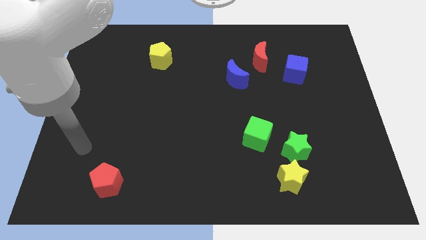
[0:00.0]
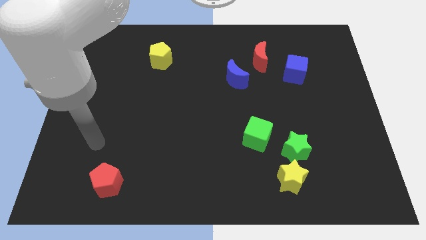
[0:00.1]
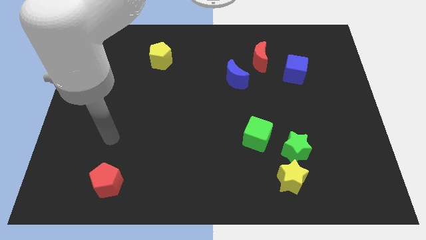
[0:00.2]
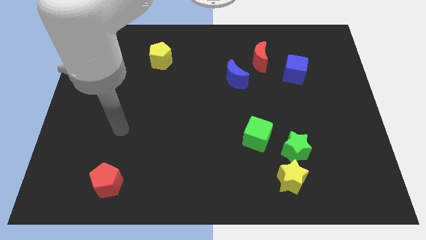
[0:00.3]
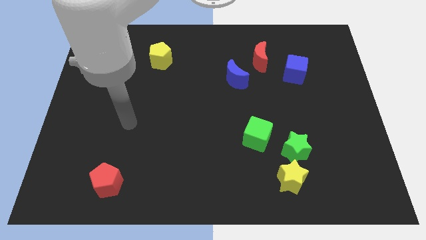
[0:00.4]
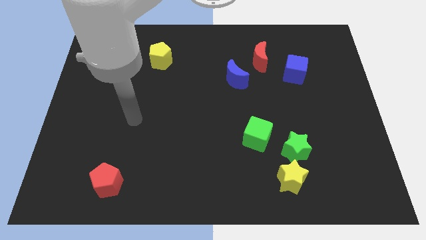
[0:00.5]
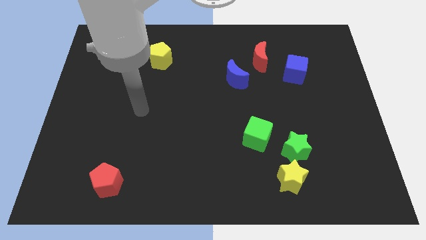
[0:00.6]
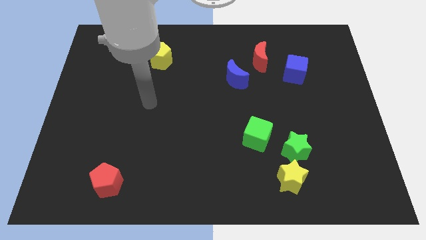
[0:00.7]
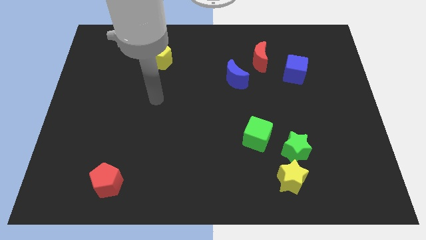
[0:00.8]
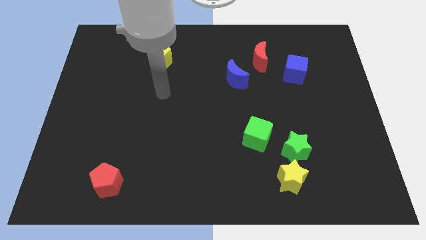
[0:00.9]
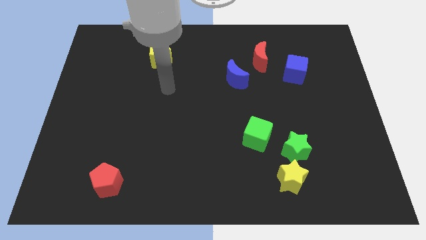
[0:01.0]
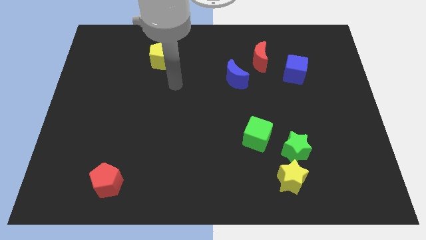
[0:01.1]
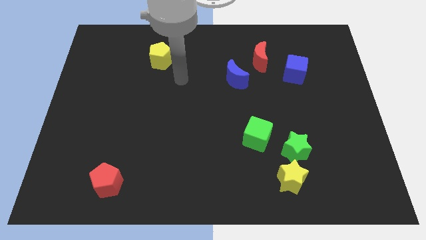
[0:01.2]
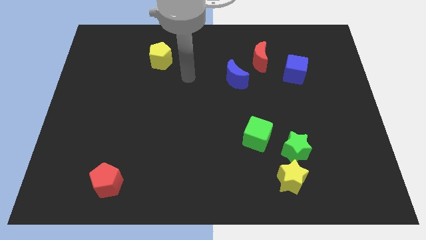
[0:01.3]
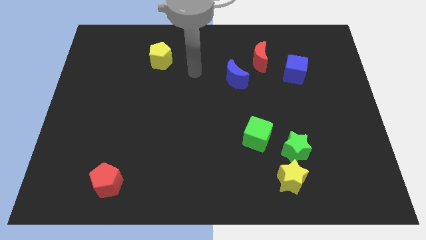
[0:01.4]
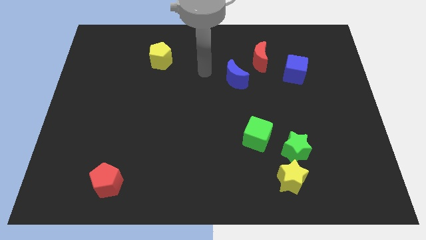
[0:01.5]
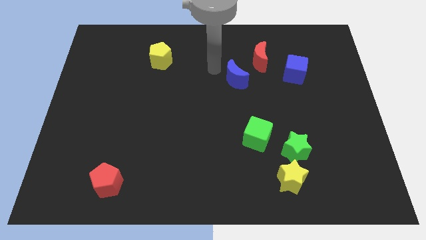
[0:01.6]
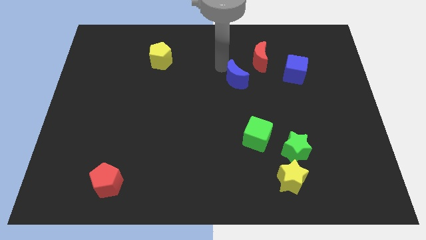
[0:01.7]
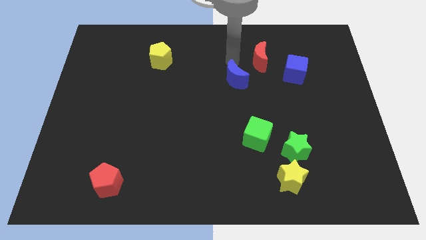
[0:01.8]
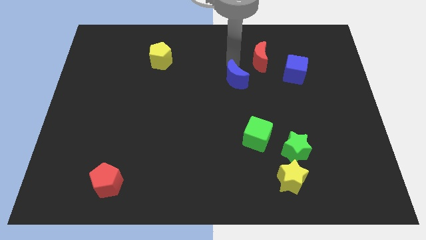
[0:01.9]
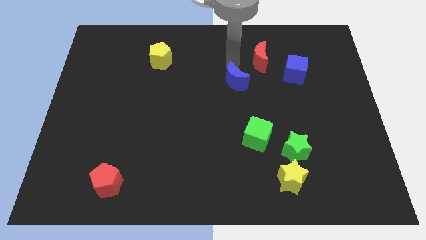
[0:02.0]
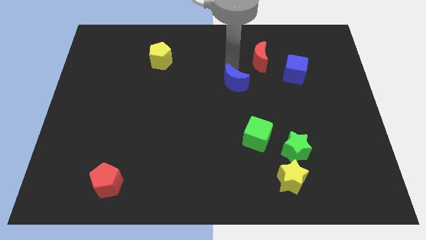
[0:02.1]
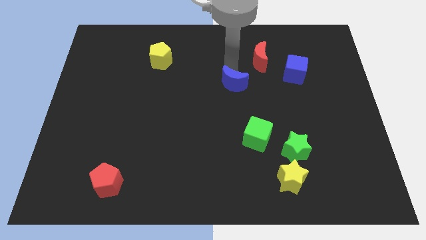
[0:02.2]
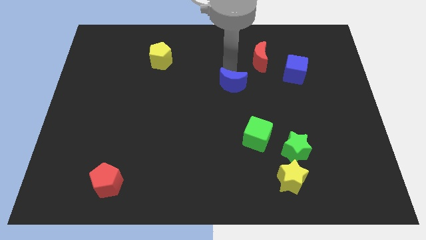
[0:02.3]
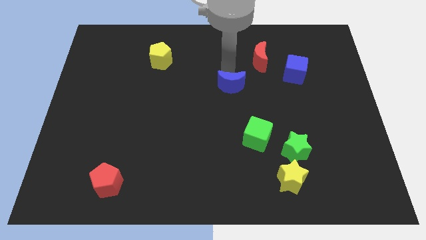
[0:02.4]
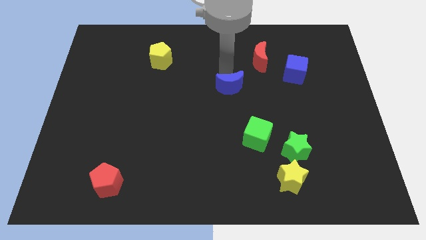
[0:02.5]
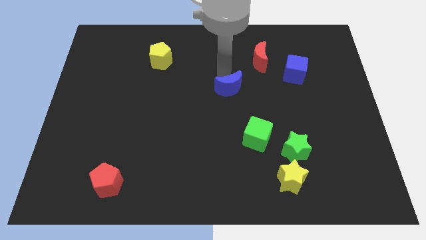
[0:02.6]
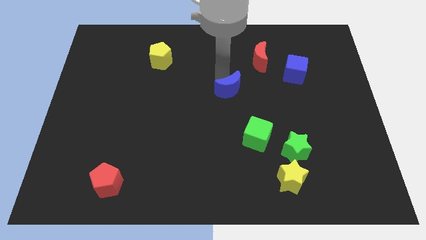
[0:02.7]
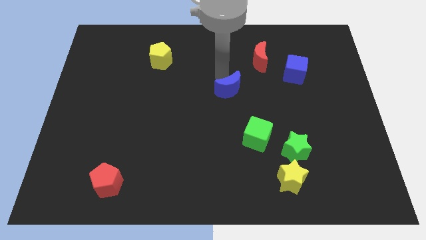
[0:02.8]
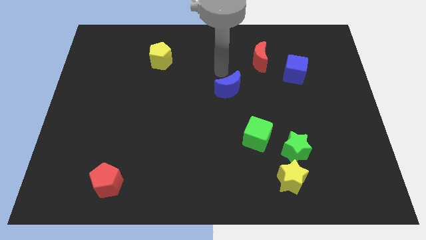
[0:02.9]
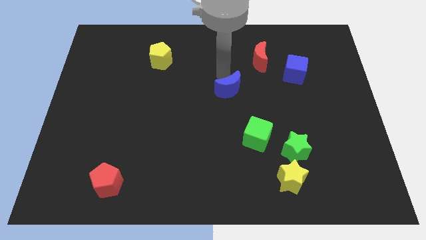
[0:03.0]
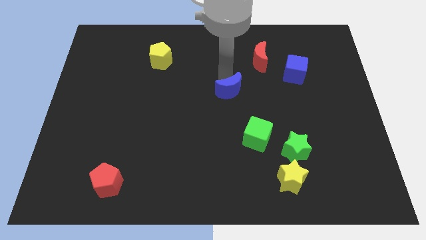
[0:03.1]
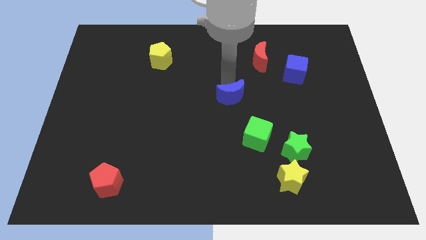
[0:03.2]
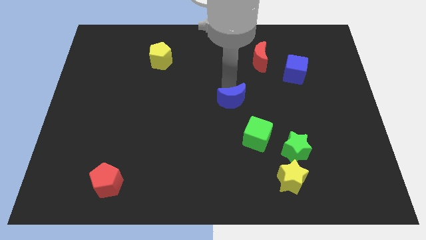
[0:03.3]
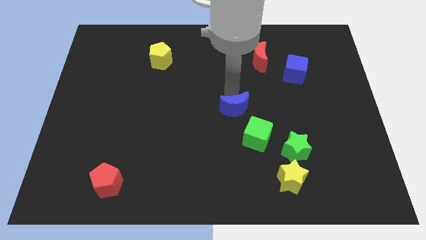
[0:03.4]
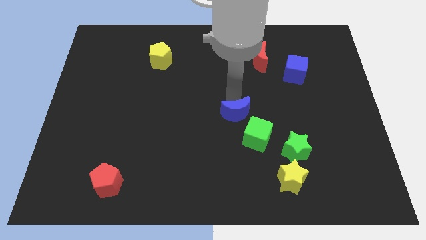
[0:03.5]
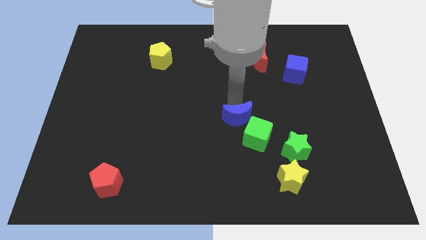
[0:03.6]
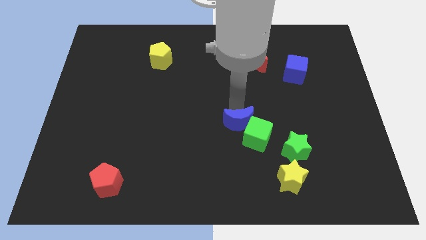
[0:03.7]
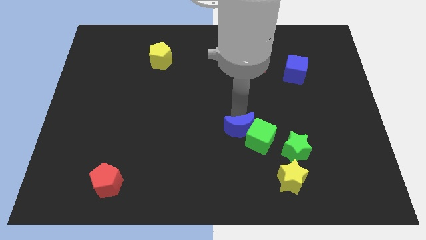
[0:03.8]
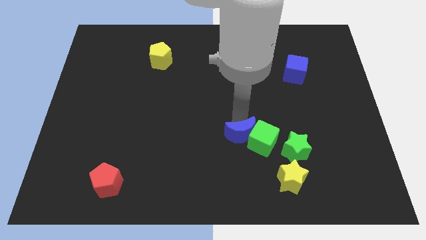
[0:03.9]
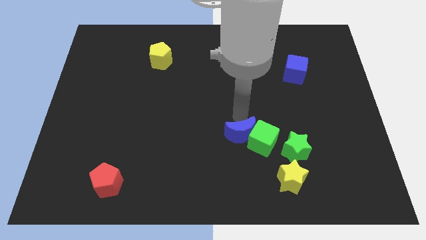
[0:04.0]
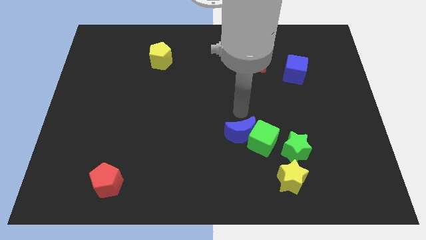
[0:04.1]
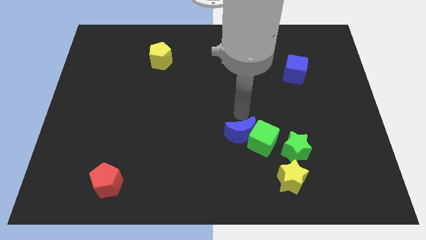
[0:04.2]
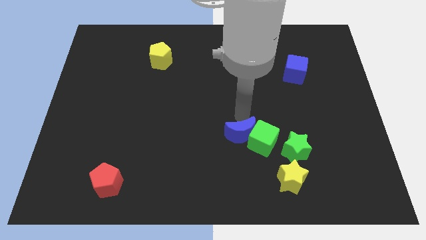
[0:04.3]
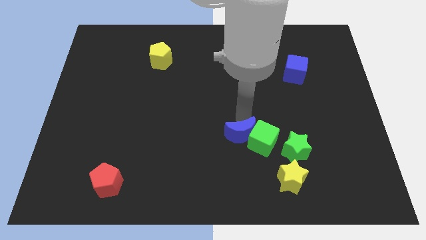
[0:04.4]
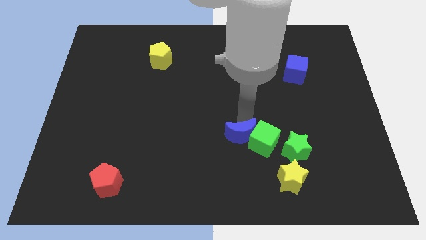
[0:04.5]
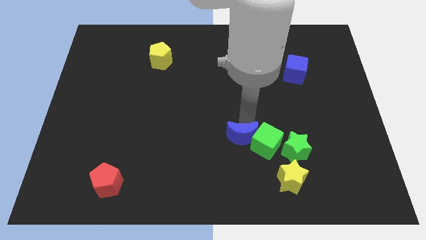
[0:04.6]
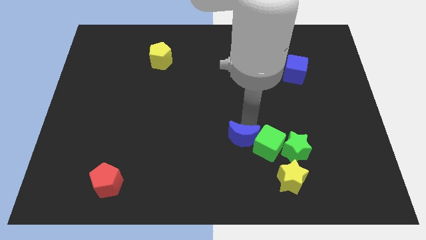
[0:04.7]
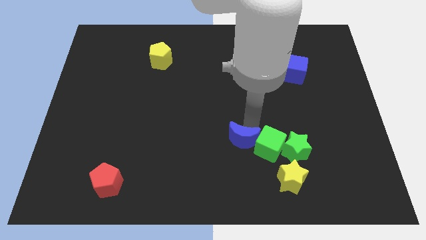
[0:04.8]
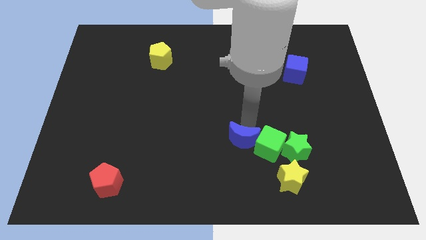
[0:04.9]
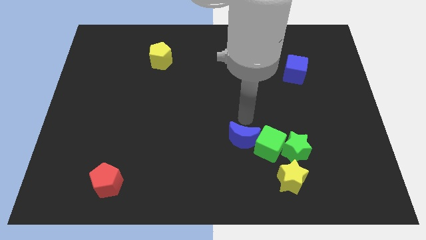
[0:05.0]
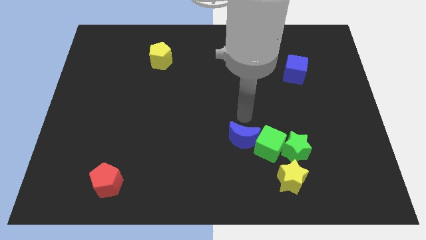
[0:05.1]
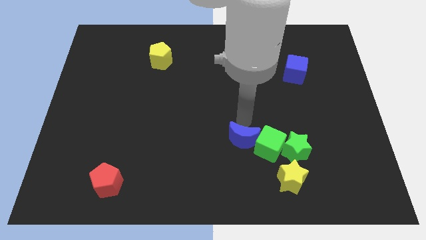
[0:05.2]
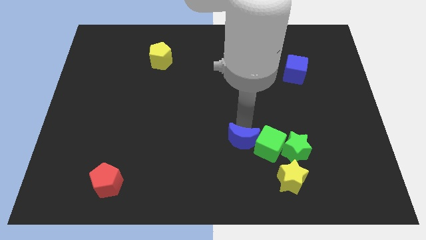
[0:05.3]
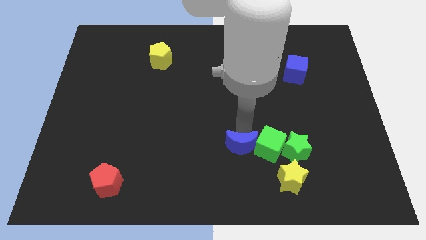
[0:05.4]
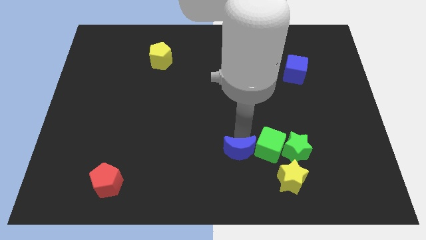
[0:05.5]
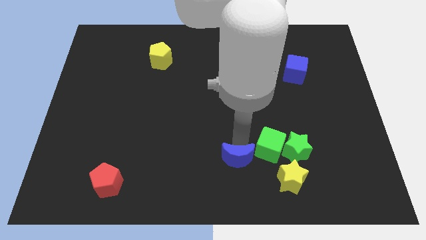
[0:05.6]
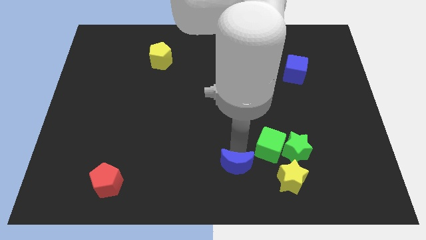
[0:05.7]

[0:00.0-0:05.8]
push the blue moon just left of the yellow star

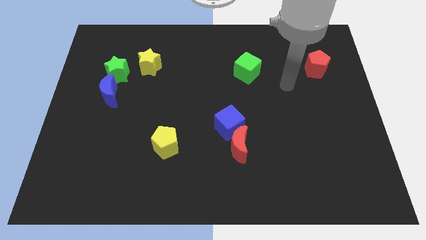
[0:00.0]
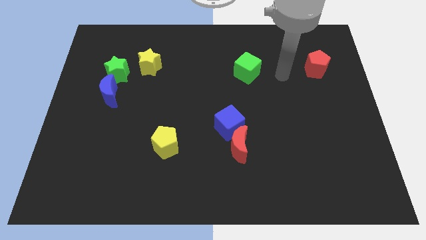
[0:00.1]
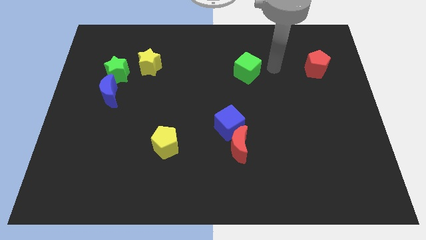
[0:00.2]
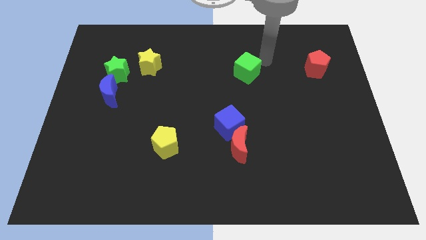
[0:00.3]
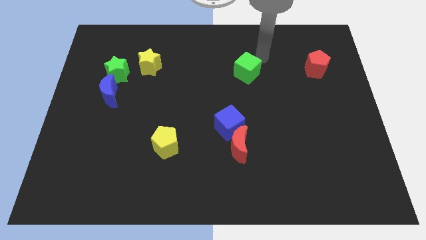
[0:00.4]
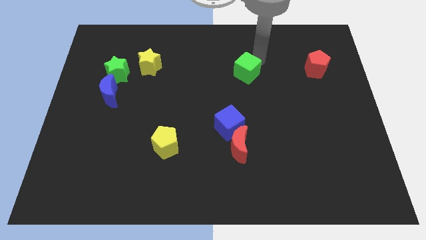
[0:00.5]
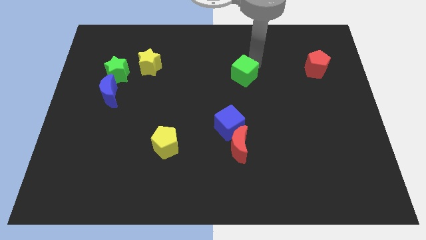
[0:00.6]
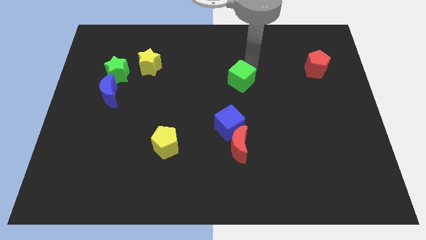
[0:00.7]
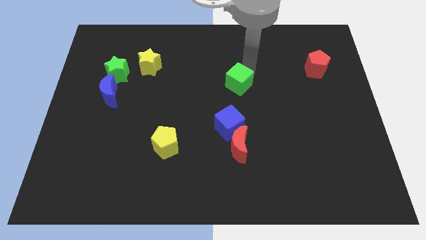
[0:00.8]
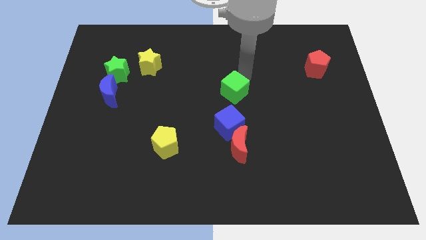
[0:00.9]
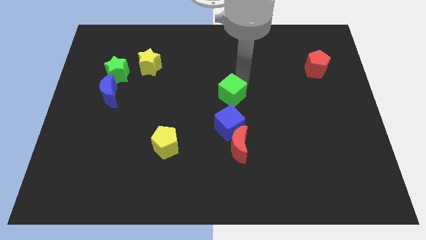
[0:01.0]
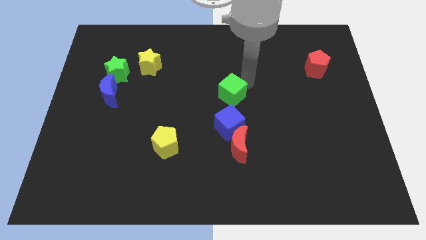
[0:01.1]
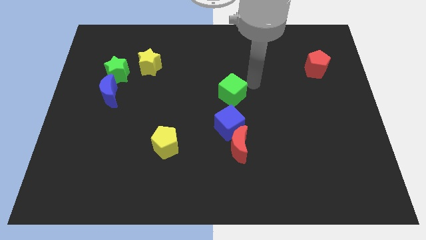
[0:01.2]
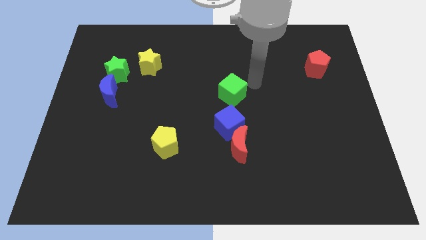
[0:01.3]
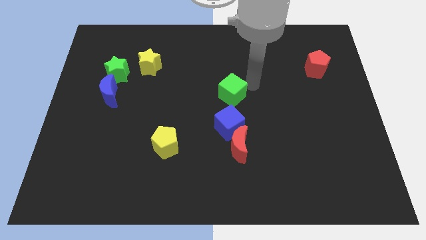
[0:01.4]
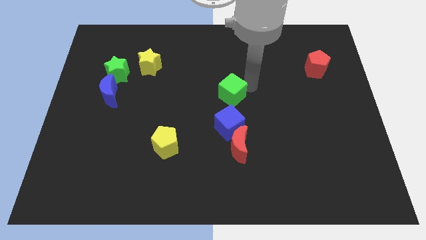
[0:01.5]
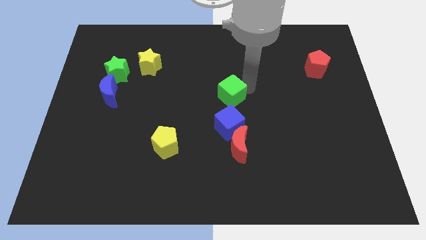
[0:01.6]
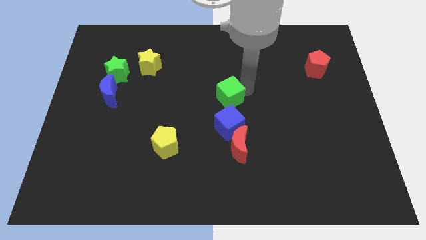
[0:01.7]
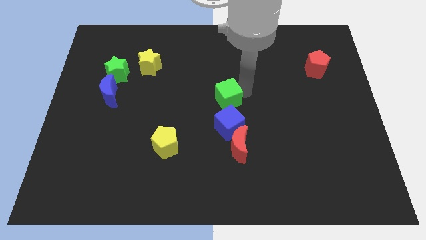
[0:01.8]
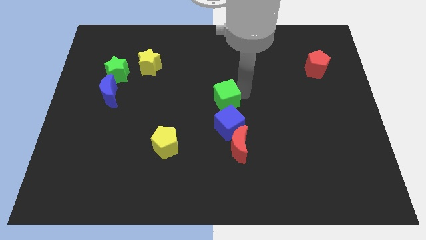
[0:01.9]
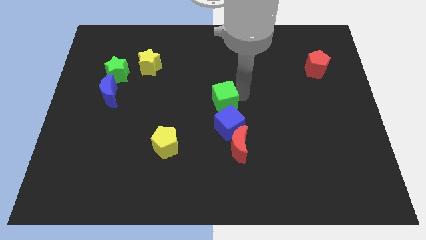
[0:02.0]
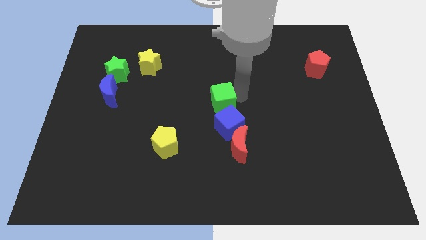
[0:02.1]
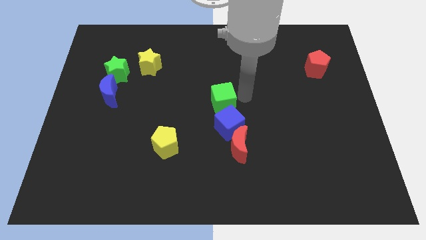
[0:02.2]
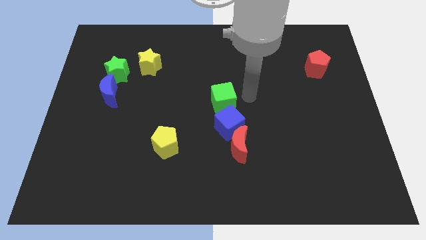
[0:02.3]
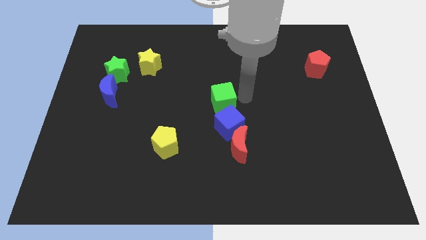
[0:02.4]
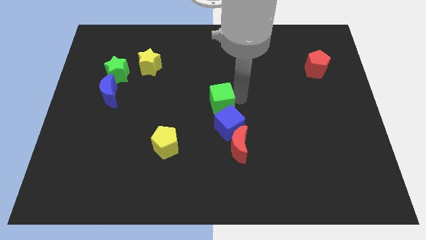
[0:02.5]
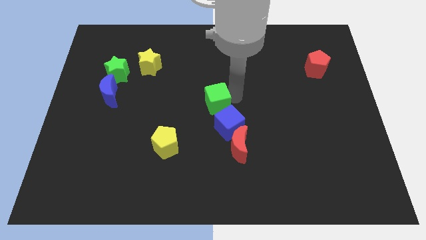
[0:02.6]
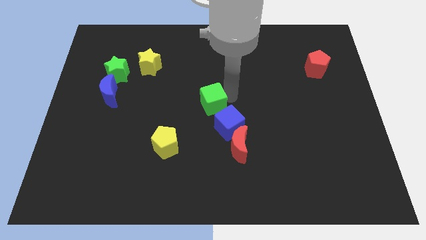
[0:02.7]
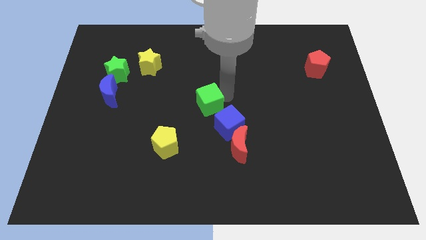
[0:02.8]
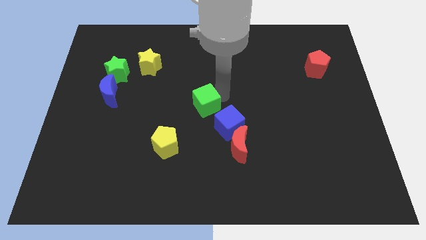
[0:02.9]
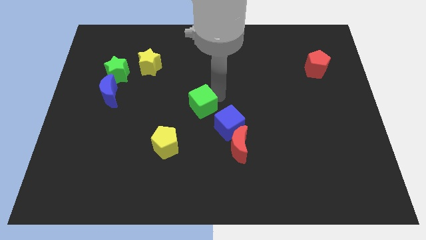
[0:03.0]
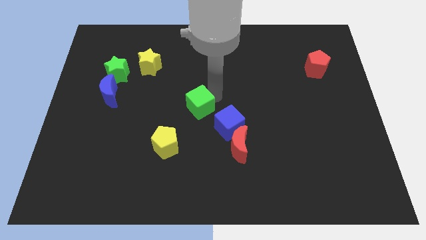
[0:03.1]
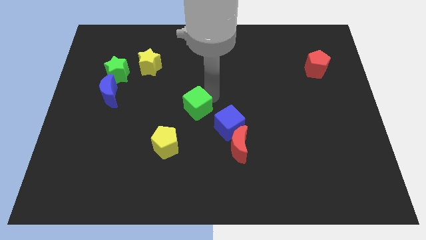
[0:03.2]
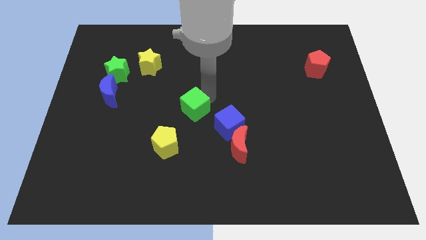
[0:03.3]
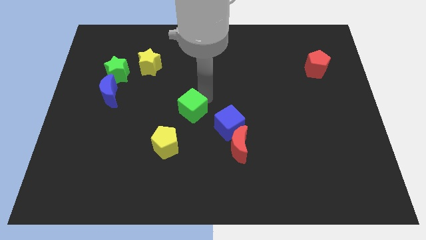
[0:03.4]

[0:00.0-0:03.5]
move the green cube just left of the blue cube
